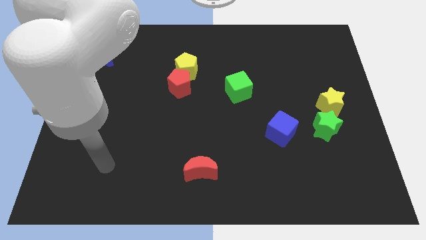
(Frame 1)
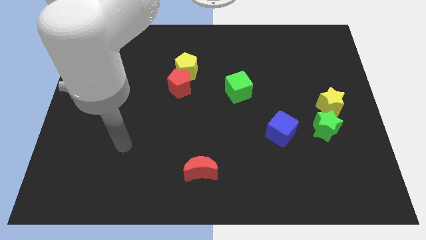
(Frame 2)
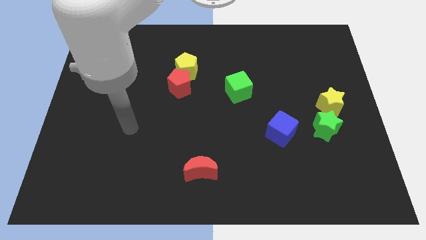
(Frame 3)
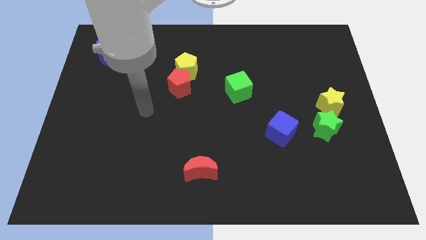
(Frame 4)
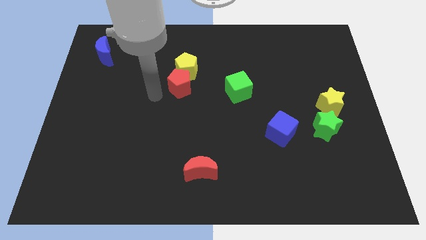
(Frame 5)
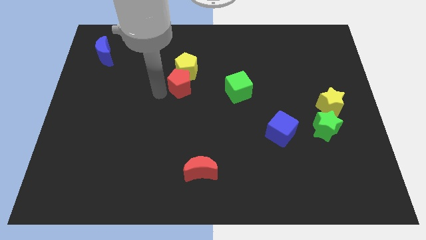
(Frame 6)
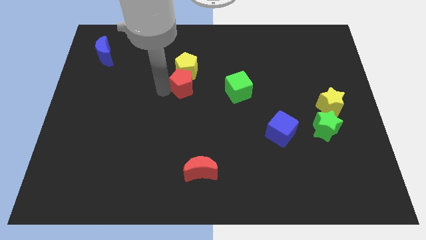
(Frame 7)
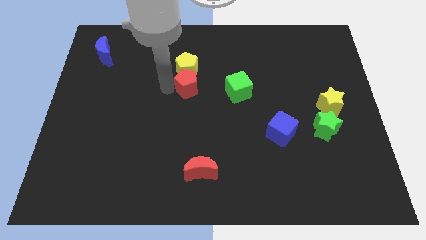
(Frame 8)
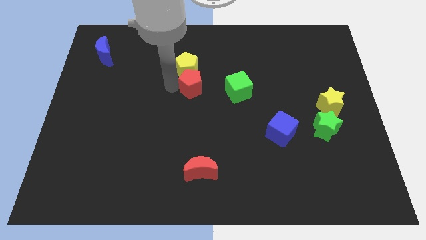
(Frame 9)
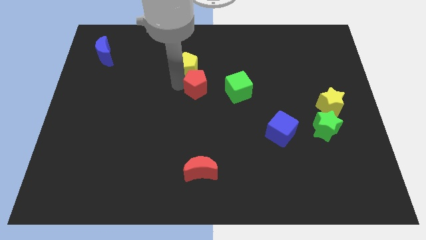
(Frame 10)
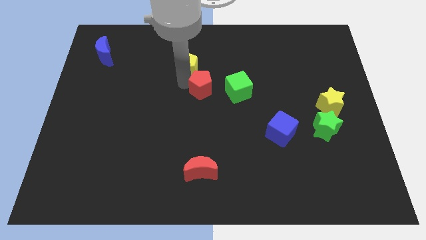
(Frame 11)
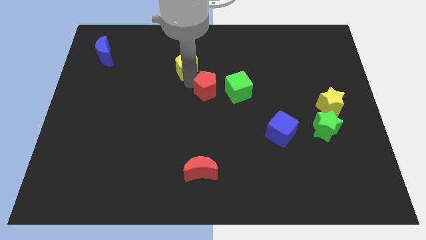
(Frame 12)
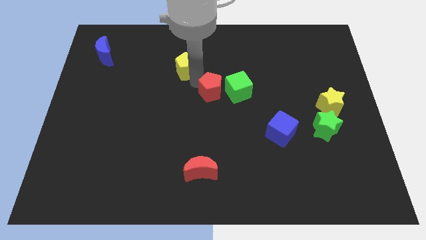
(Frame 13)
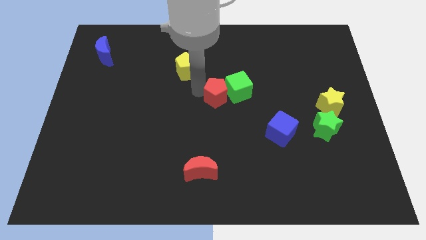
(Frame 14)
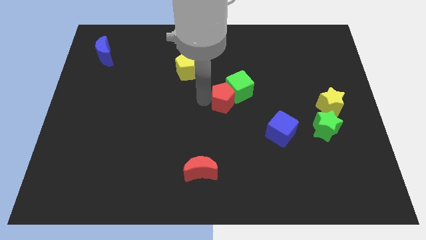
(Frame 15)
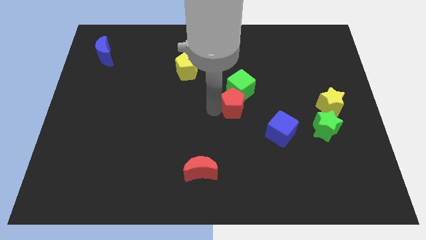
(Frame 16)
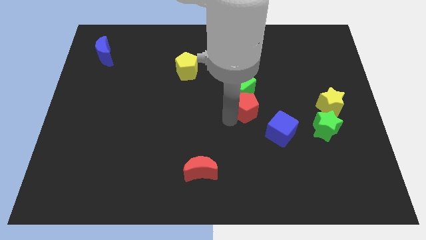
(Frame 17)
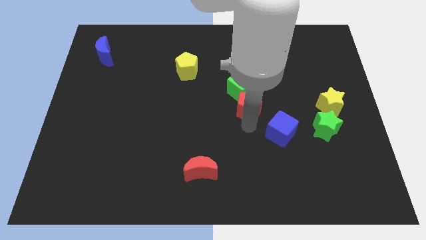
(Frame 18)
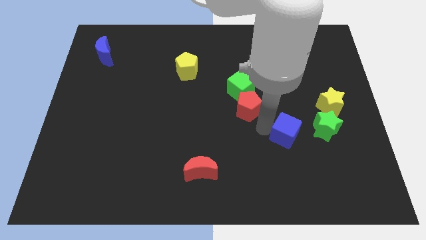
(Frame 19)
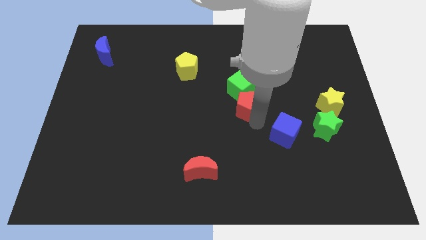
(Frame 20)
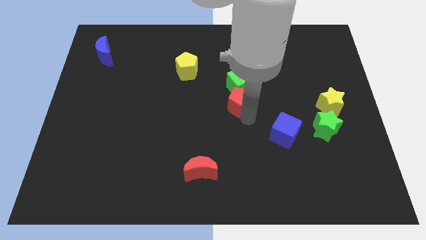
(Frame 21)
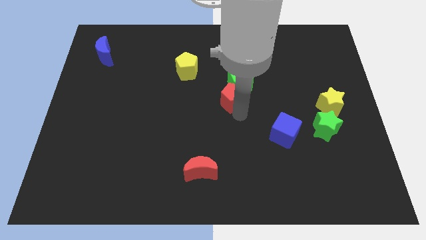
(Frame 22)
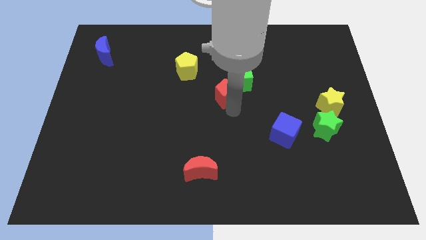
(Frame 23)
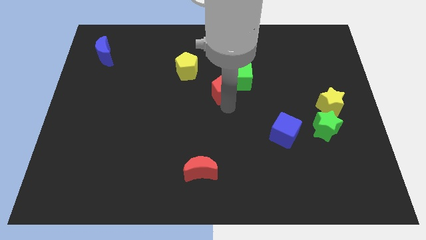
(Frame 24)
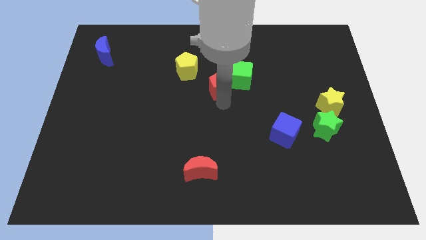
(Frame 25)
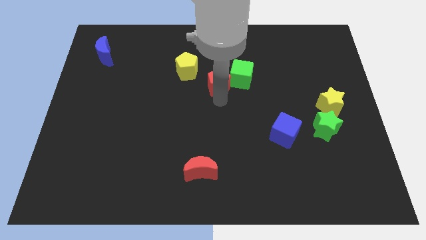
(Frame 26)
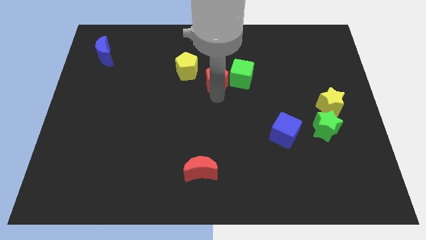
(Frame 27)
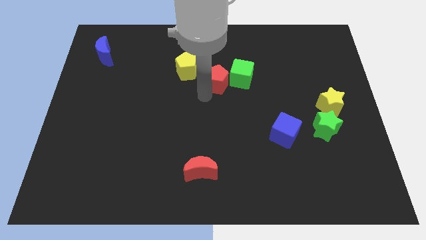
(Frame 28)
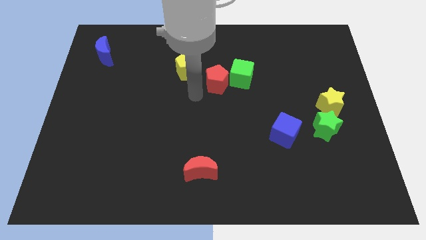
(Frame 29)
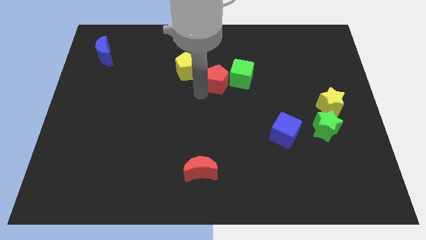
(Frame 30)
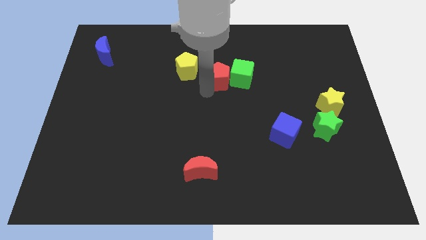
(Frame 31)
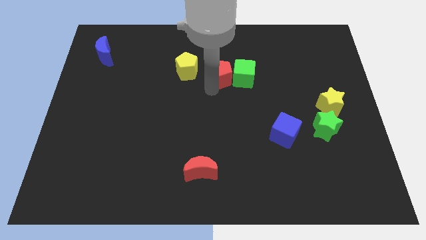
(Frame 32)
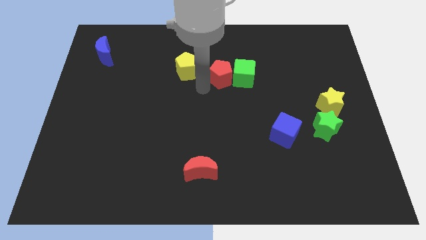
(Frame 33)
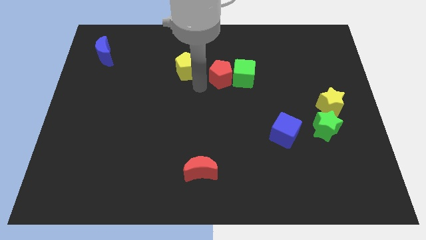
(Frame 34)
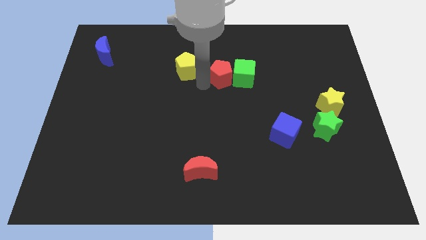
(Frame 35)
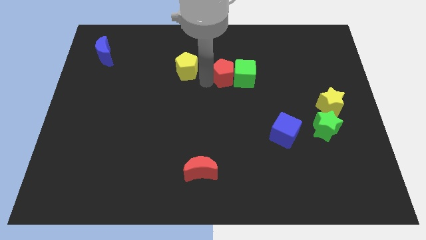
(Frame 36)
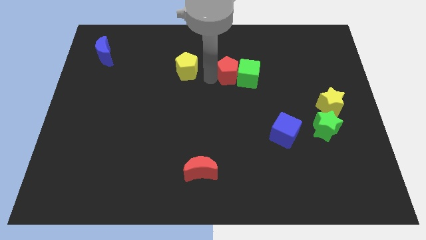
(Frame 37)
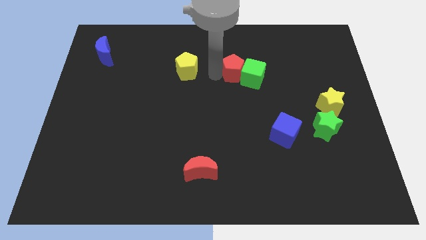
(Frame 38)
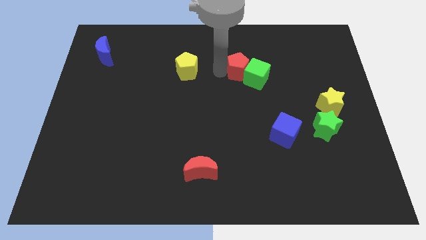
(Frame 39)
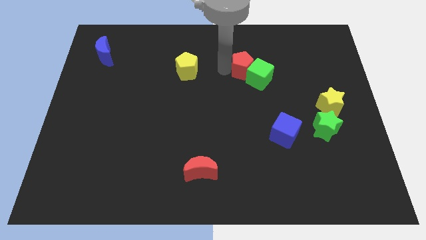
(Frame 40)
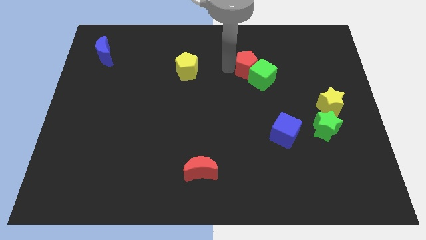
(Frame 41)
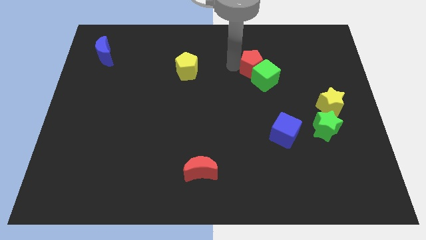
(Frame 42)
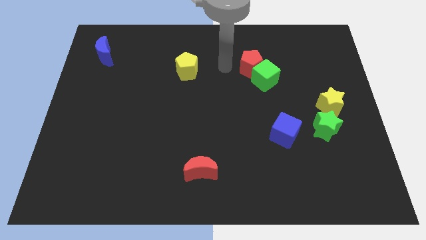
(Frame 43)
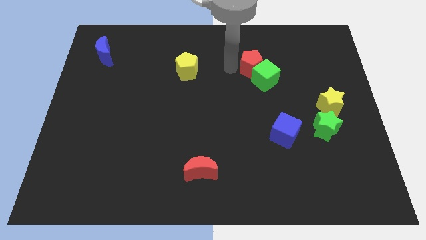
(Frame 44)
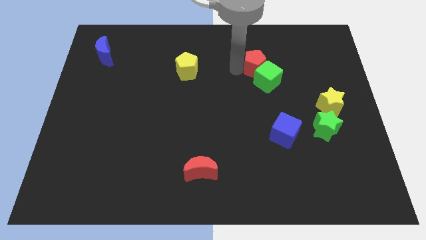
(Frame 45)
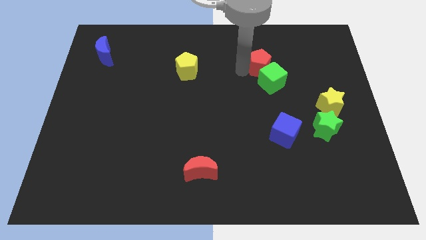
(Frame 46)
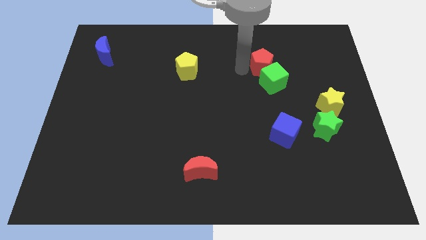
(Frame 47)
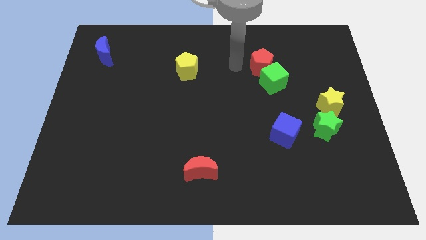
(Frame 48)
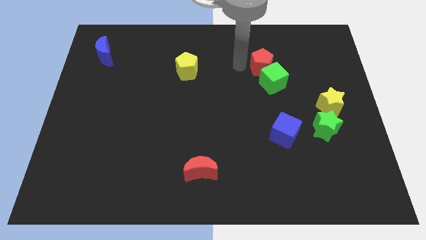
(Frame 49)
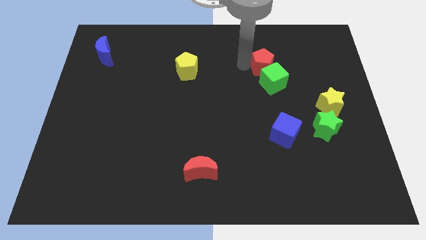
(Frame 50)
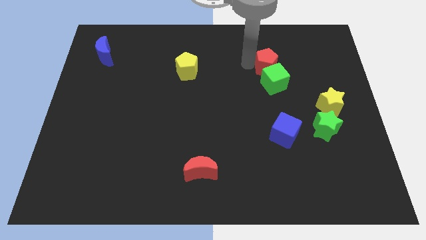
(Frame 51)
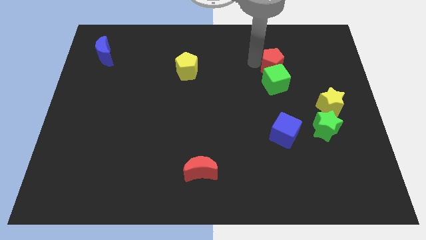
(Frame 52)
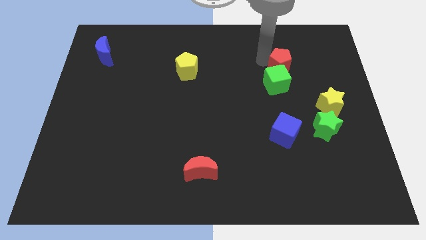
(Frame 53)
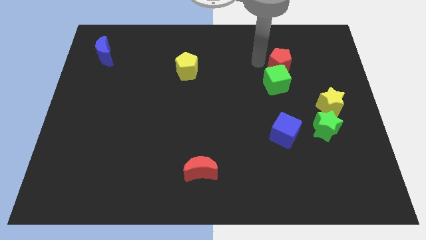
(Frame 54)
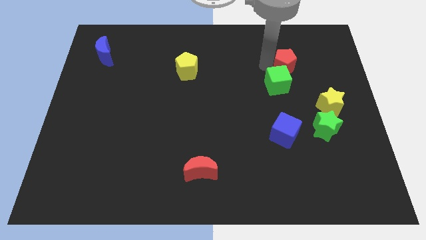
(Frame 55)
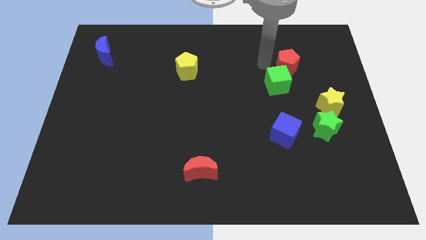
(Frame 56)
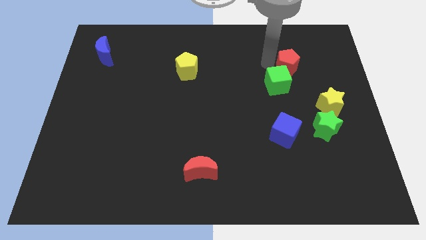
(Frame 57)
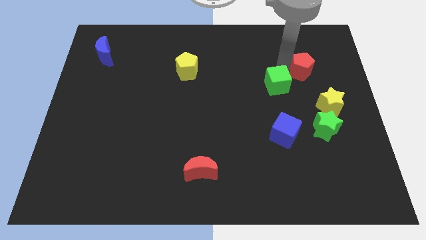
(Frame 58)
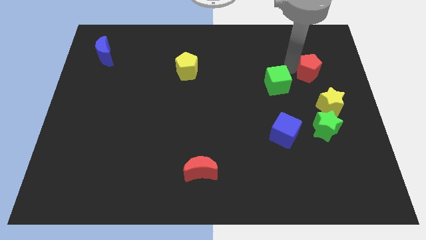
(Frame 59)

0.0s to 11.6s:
move the red pentagon to the top side of the yellow star
